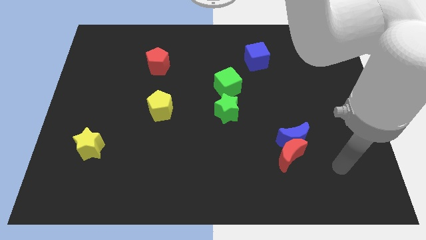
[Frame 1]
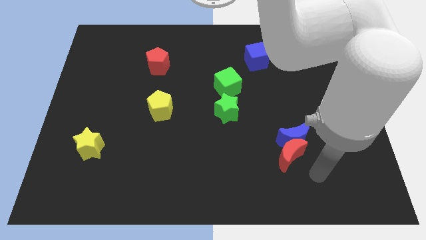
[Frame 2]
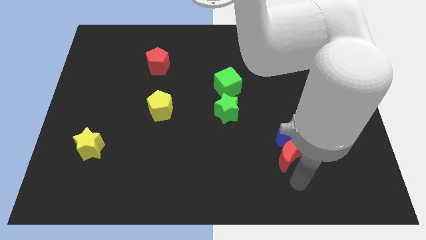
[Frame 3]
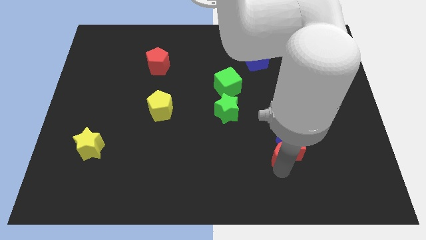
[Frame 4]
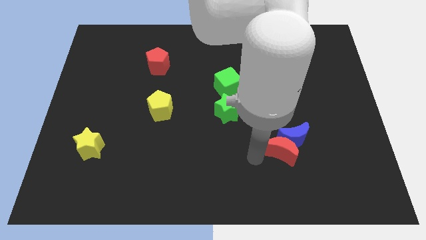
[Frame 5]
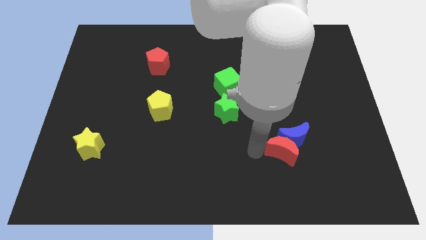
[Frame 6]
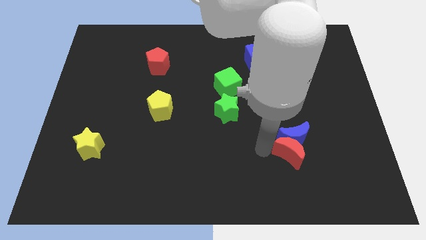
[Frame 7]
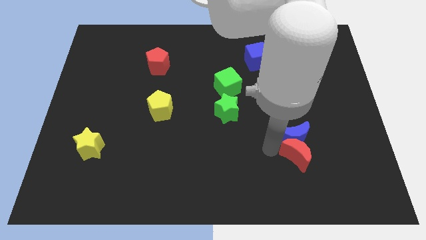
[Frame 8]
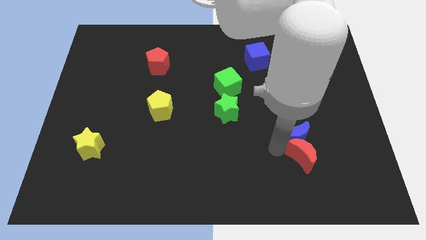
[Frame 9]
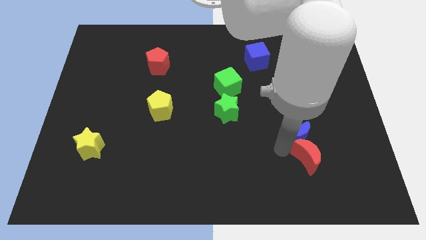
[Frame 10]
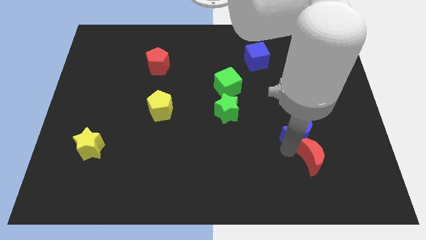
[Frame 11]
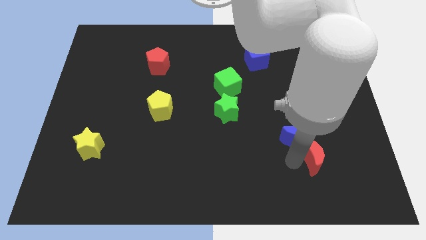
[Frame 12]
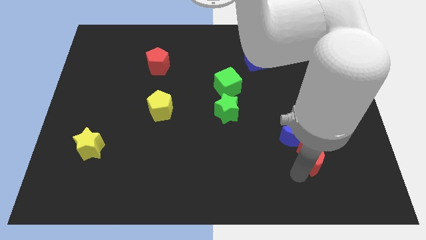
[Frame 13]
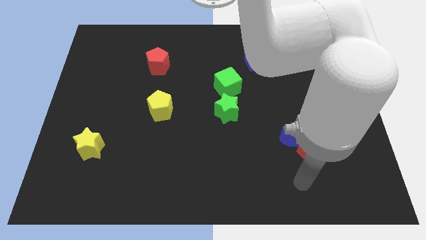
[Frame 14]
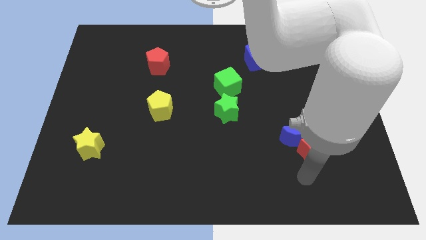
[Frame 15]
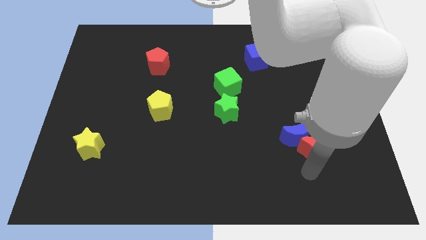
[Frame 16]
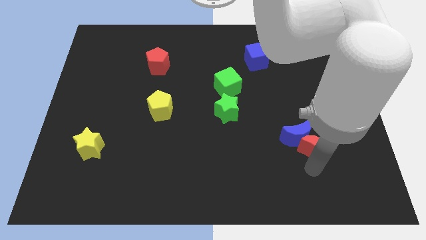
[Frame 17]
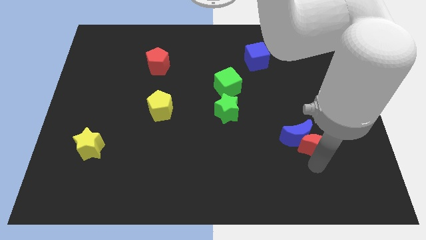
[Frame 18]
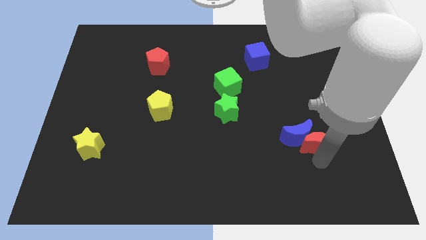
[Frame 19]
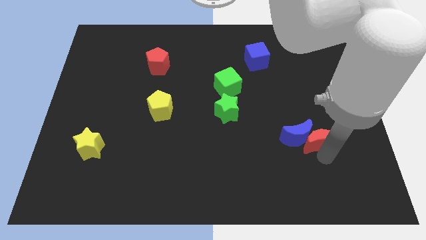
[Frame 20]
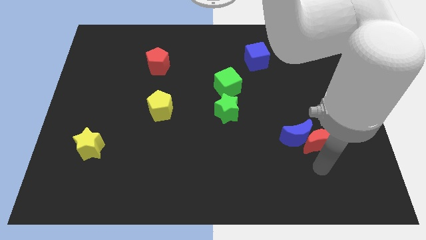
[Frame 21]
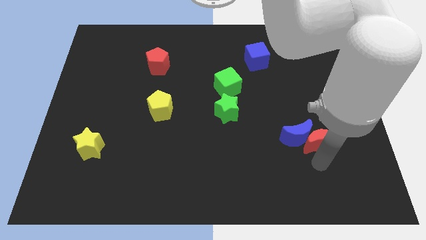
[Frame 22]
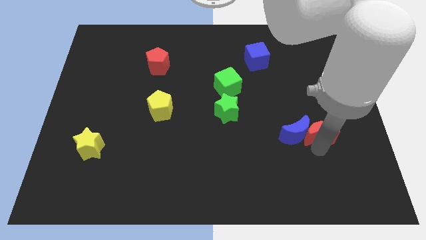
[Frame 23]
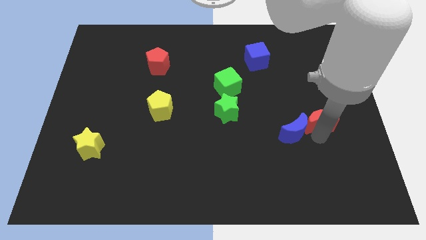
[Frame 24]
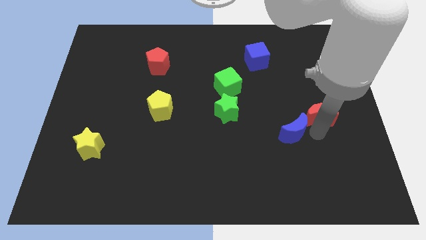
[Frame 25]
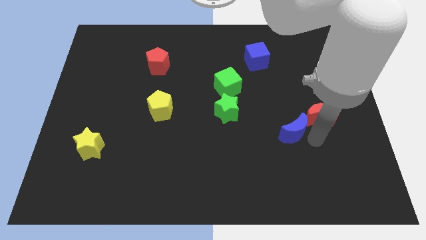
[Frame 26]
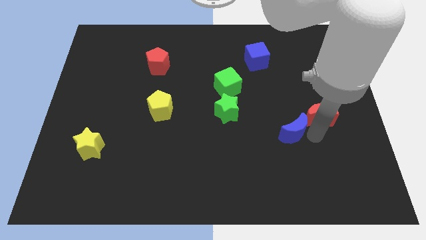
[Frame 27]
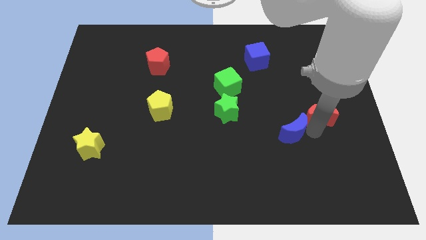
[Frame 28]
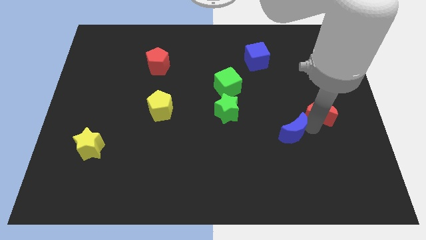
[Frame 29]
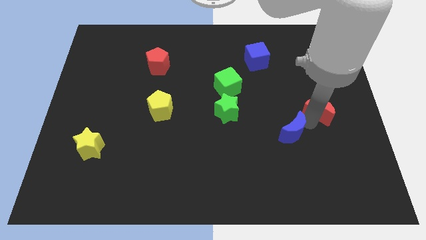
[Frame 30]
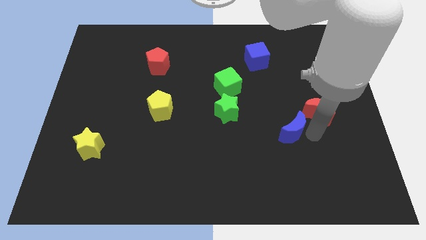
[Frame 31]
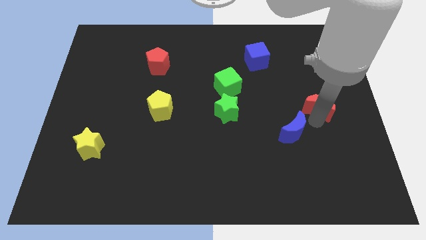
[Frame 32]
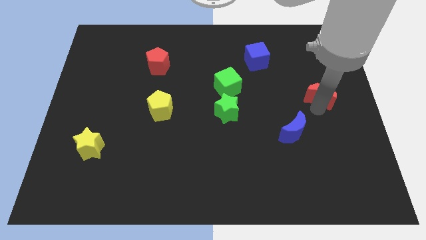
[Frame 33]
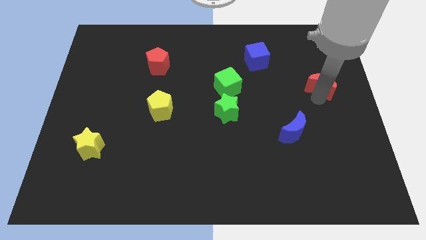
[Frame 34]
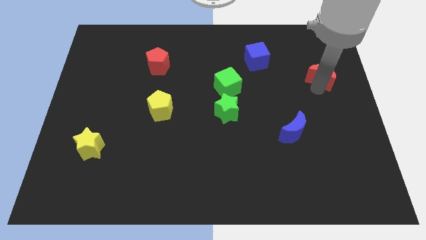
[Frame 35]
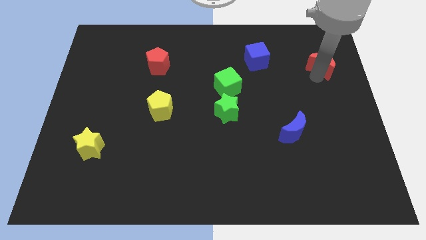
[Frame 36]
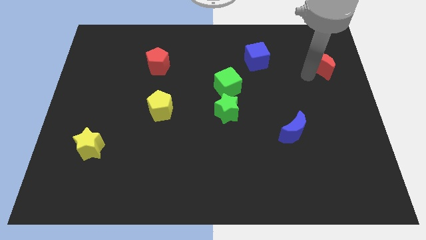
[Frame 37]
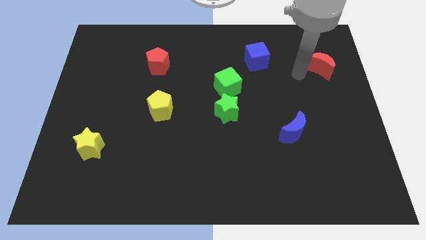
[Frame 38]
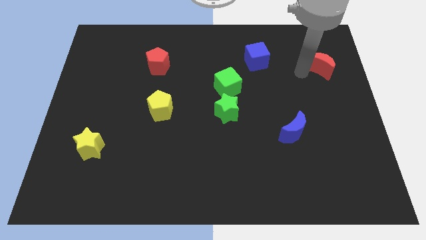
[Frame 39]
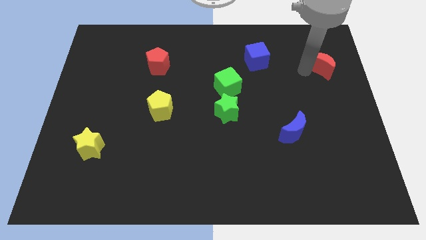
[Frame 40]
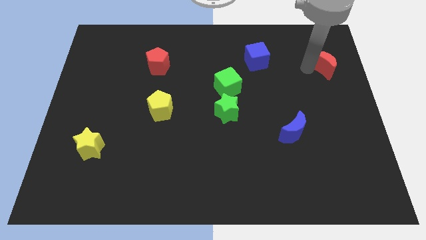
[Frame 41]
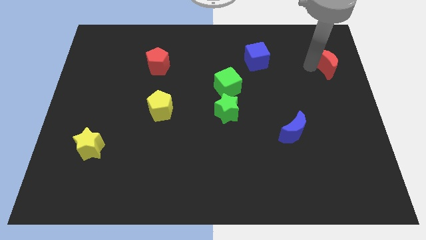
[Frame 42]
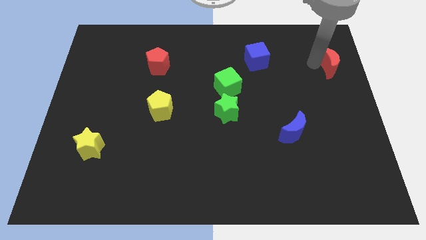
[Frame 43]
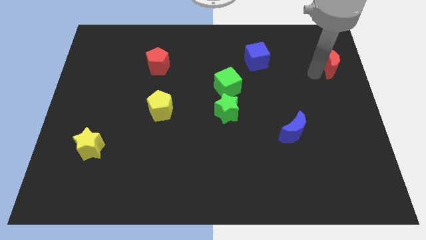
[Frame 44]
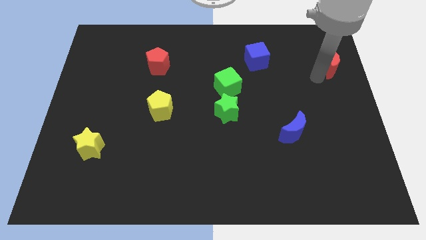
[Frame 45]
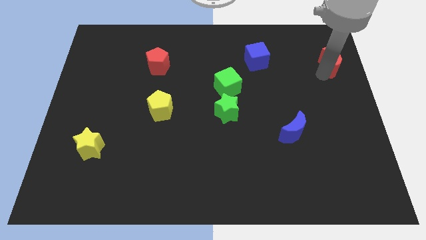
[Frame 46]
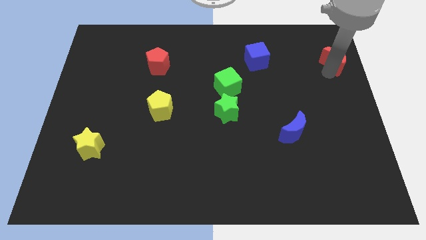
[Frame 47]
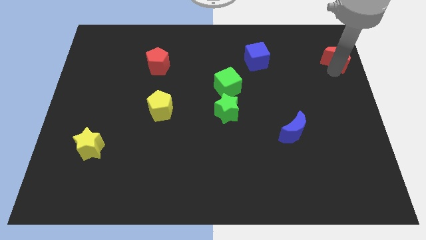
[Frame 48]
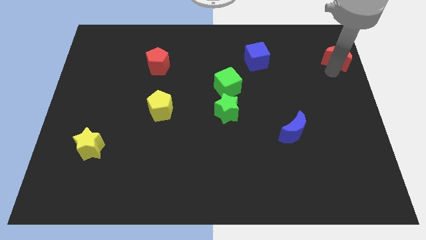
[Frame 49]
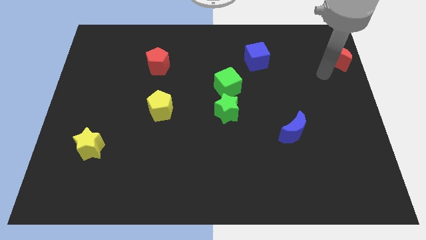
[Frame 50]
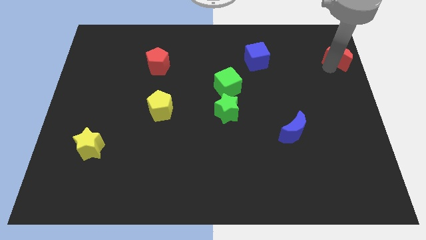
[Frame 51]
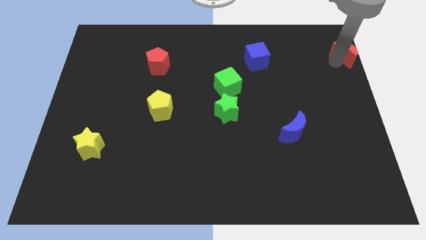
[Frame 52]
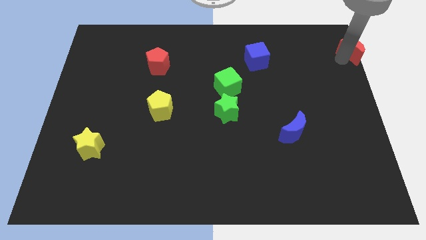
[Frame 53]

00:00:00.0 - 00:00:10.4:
put the red moon to the upper right corner

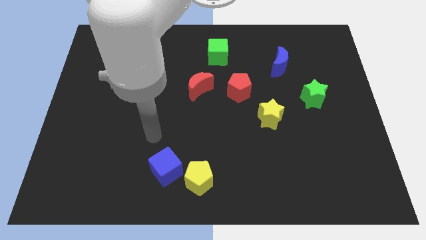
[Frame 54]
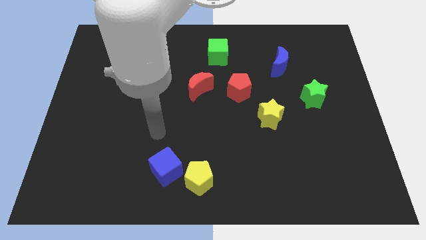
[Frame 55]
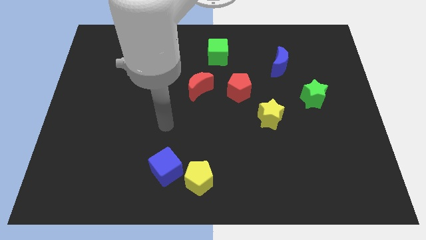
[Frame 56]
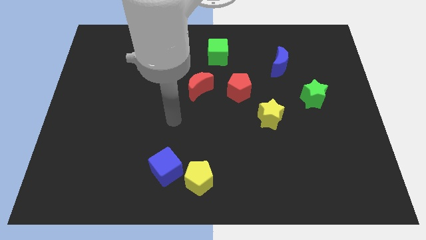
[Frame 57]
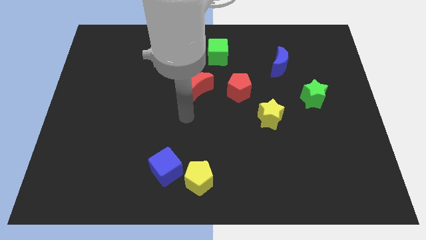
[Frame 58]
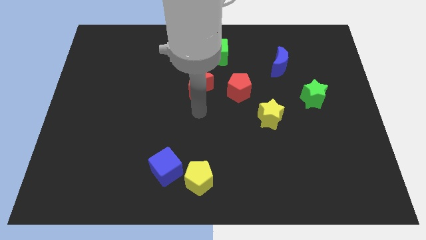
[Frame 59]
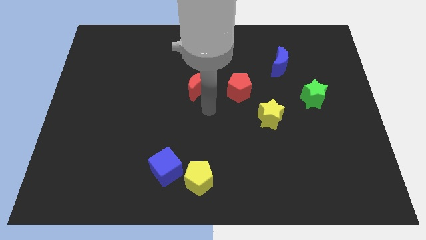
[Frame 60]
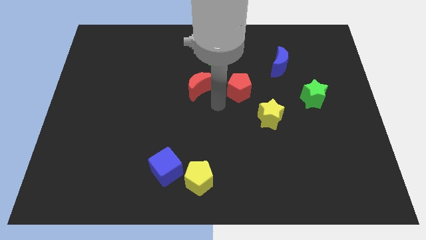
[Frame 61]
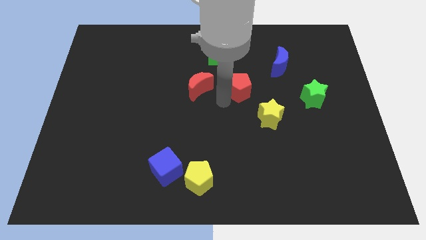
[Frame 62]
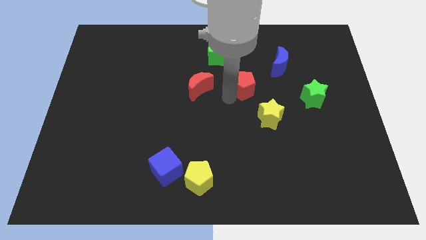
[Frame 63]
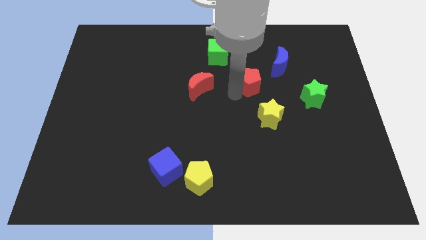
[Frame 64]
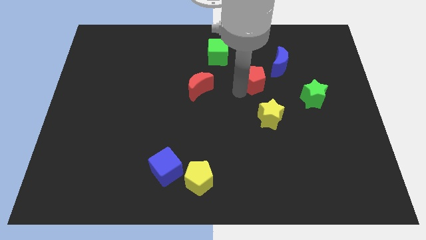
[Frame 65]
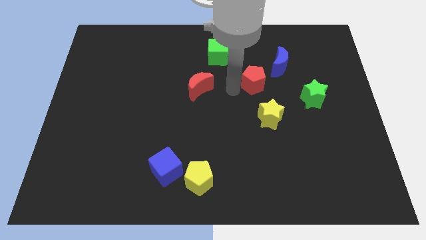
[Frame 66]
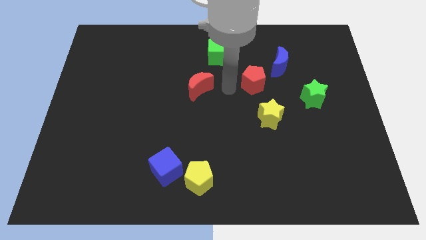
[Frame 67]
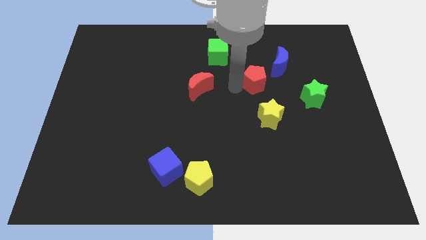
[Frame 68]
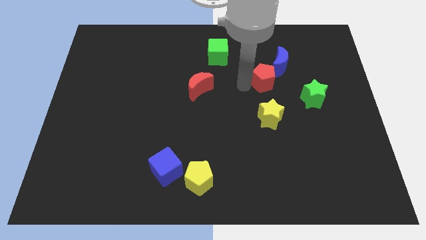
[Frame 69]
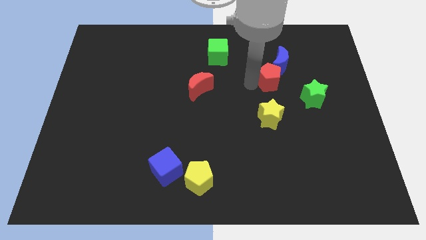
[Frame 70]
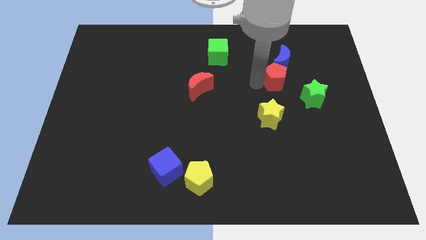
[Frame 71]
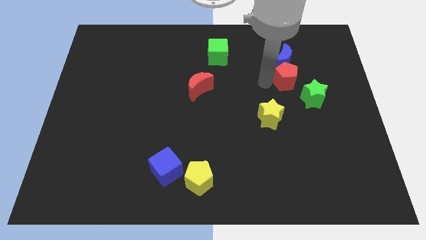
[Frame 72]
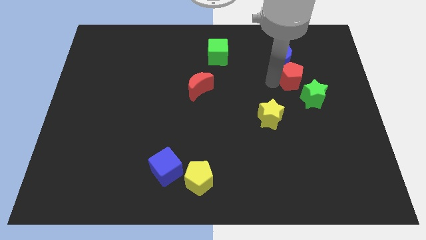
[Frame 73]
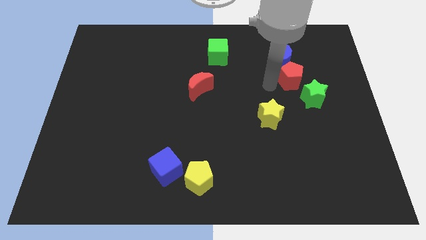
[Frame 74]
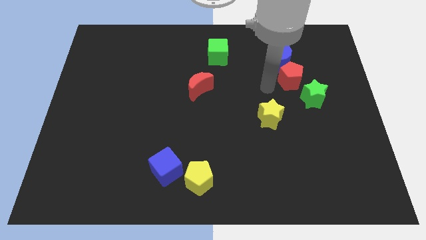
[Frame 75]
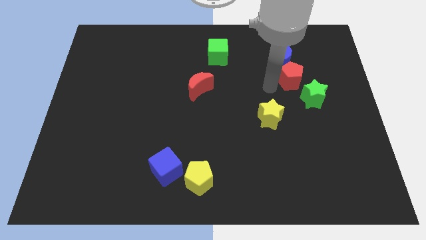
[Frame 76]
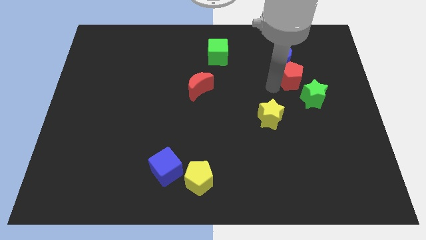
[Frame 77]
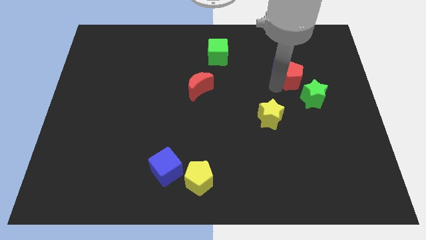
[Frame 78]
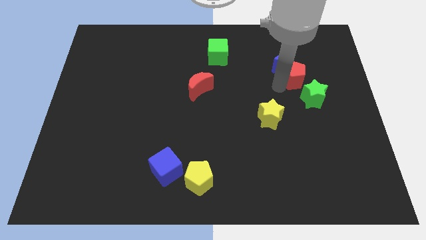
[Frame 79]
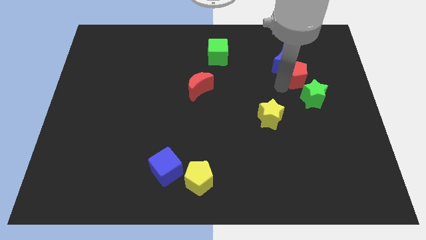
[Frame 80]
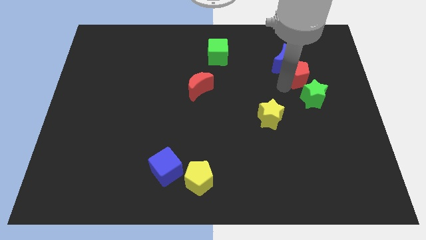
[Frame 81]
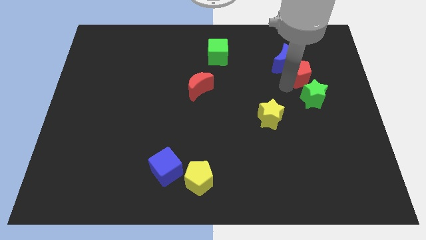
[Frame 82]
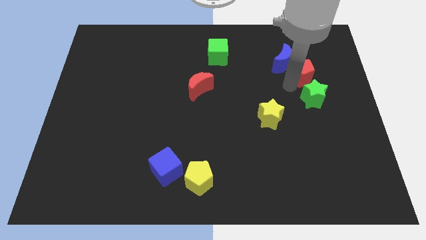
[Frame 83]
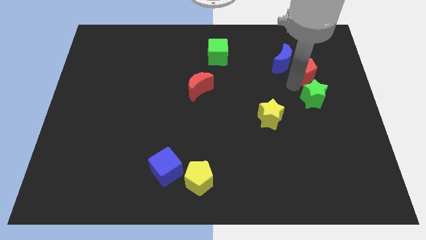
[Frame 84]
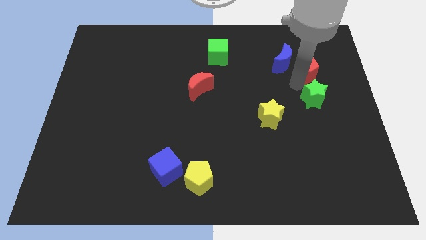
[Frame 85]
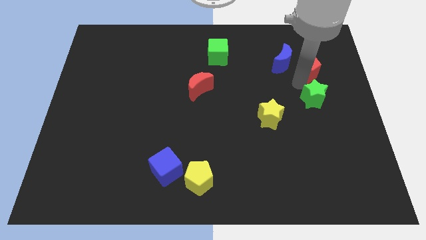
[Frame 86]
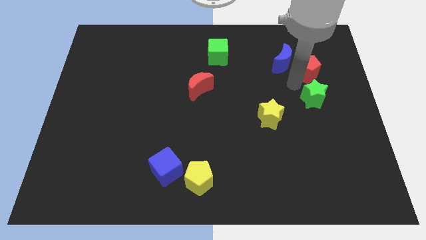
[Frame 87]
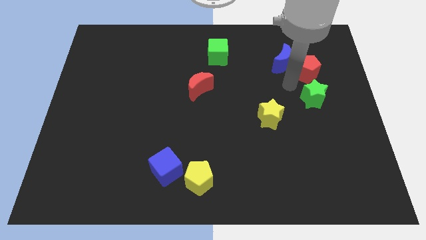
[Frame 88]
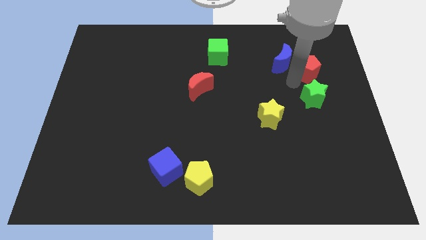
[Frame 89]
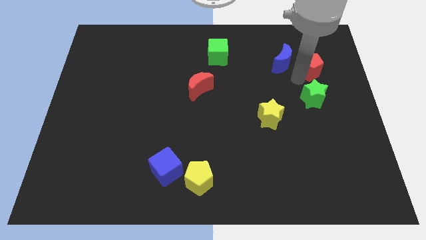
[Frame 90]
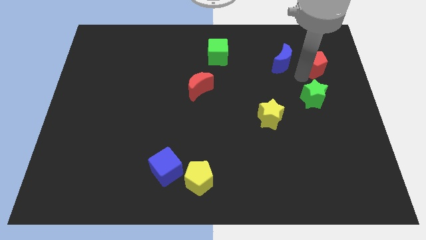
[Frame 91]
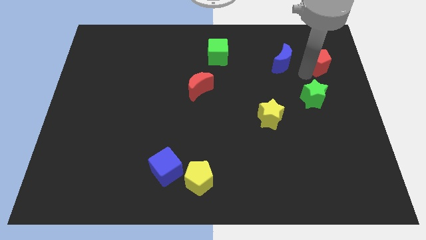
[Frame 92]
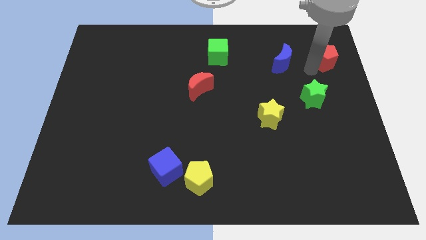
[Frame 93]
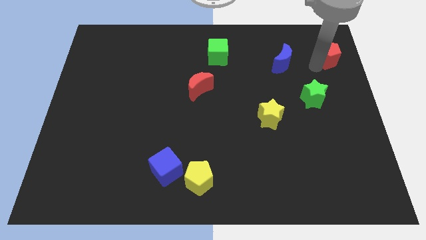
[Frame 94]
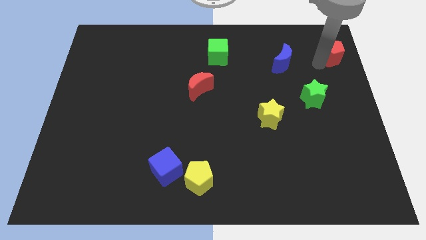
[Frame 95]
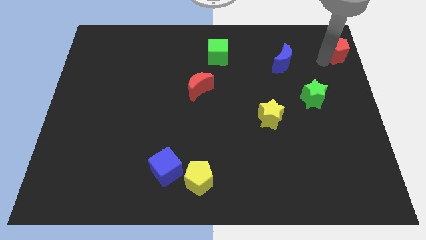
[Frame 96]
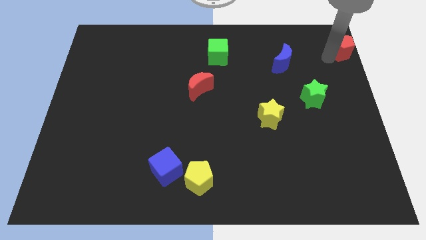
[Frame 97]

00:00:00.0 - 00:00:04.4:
slide the red pentagon to the top right of the board
